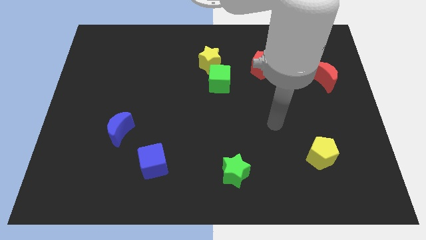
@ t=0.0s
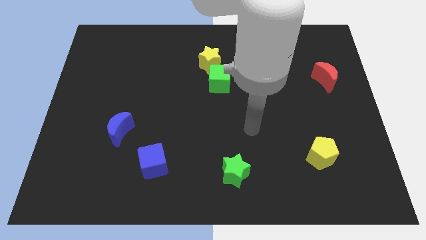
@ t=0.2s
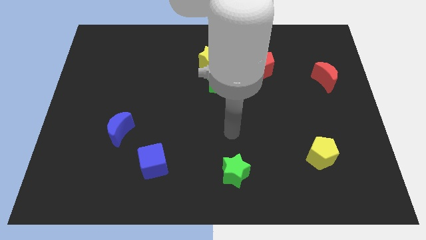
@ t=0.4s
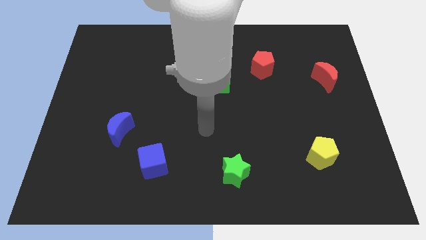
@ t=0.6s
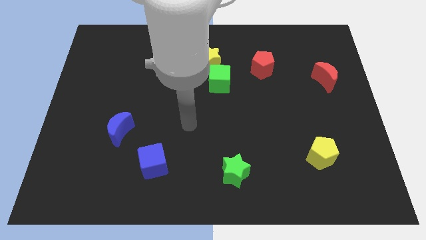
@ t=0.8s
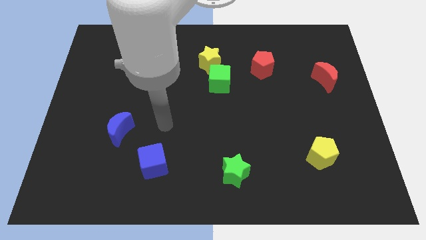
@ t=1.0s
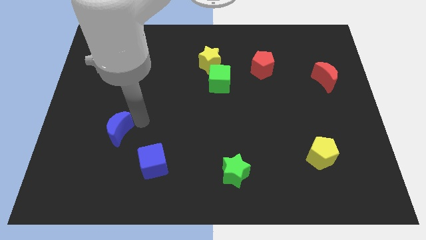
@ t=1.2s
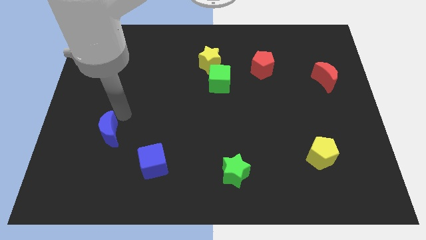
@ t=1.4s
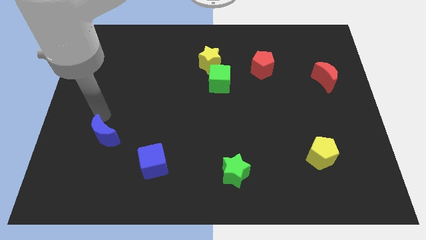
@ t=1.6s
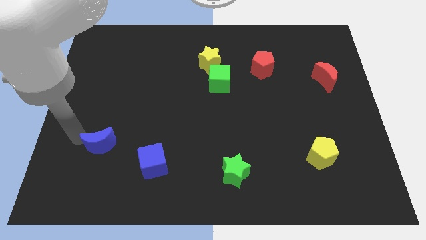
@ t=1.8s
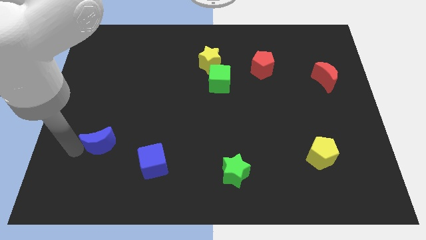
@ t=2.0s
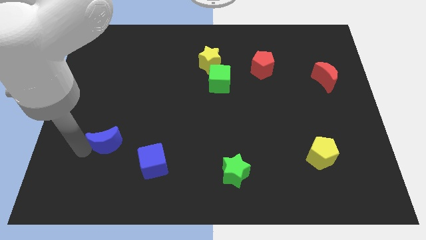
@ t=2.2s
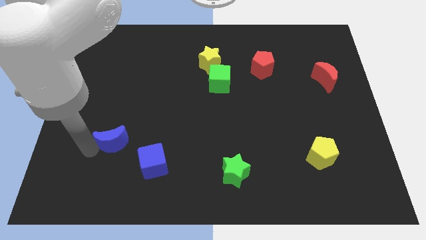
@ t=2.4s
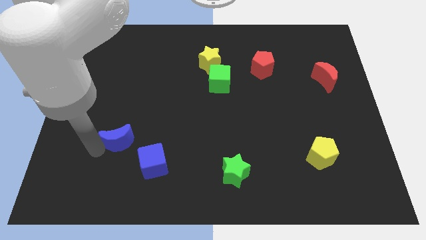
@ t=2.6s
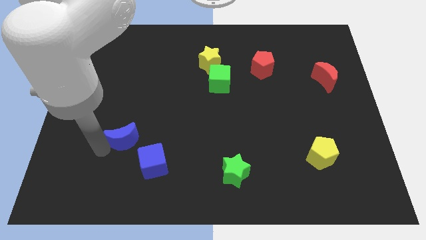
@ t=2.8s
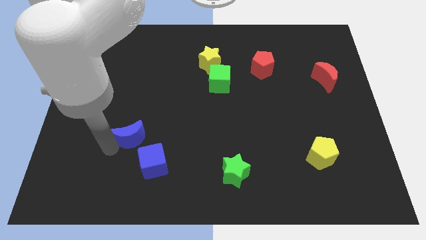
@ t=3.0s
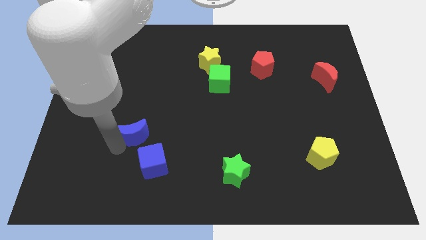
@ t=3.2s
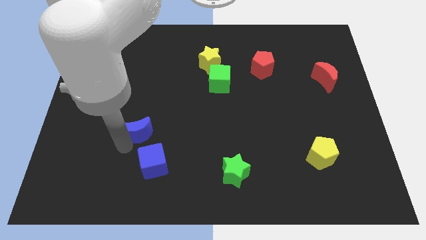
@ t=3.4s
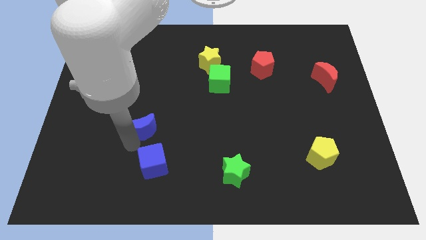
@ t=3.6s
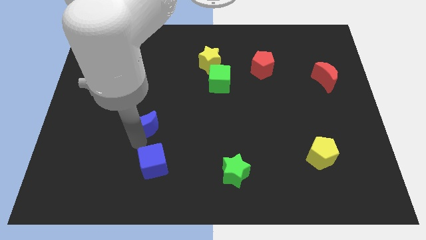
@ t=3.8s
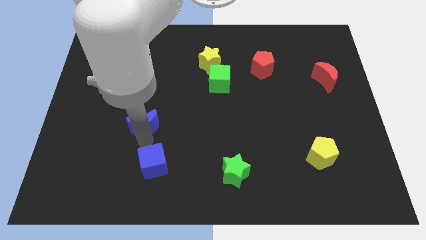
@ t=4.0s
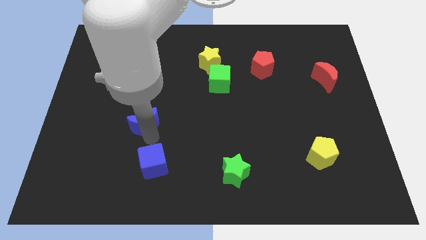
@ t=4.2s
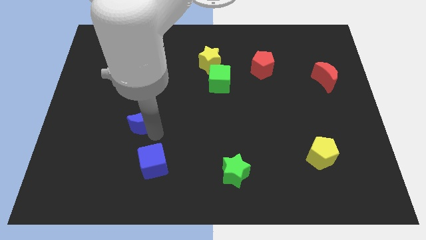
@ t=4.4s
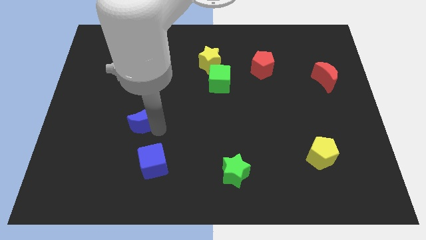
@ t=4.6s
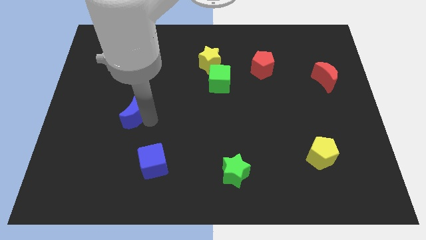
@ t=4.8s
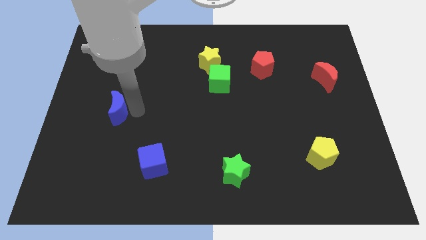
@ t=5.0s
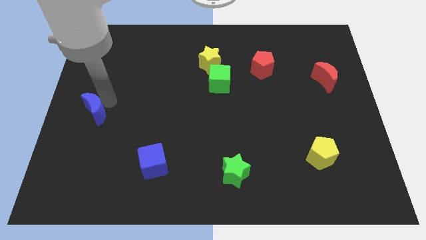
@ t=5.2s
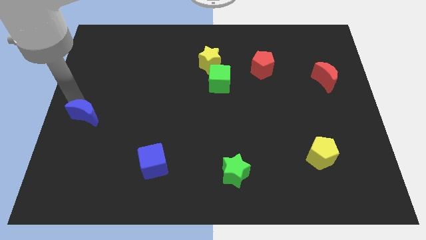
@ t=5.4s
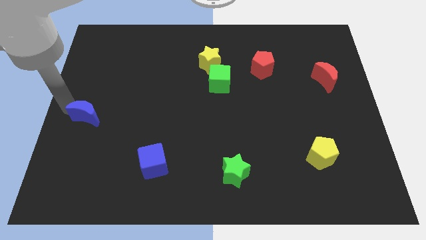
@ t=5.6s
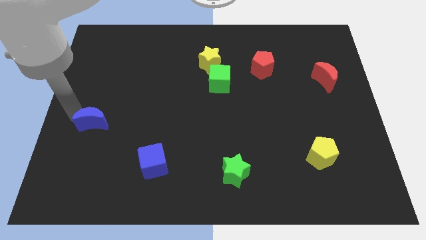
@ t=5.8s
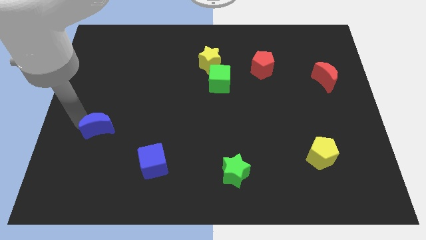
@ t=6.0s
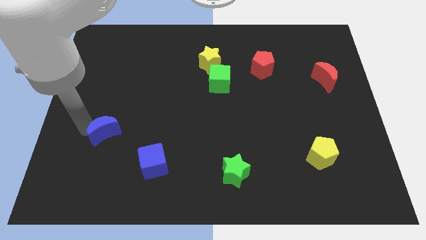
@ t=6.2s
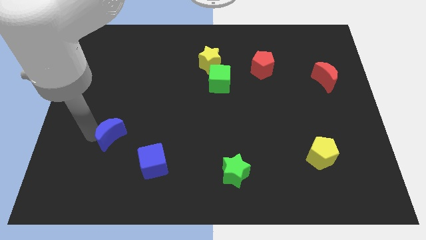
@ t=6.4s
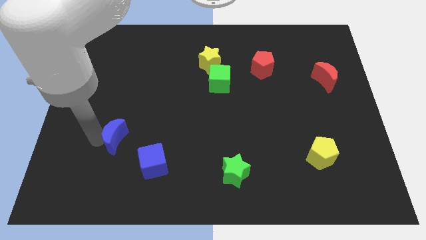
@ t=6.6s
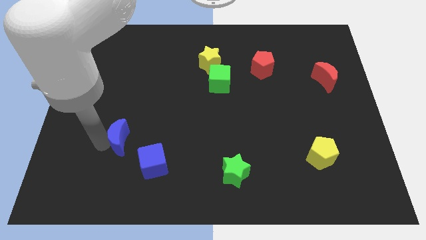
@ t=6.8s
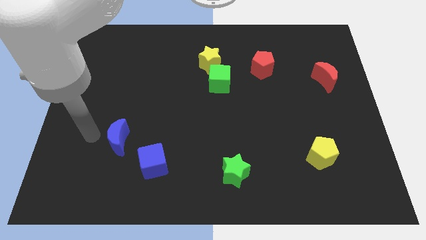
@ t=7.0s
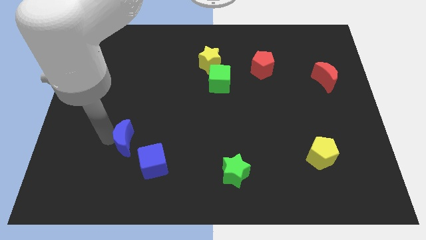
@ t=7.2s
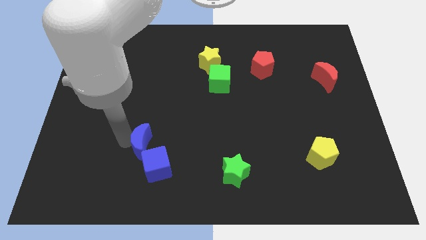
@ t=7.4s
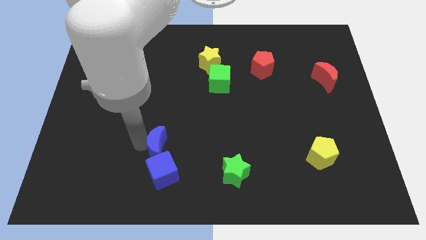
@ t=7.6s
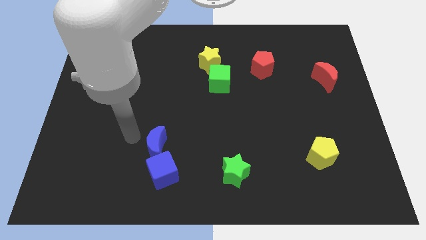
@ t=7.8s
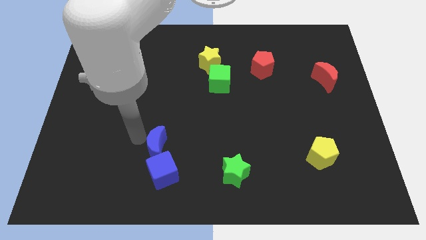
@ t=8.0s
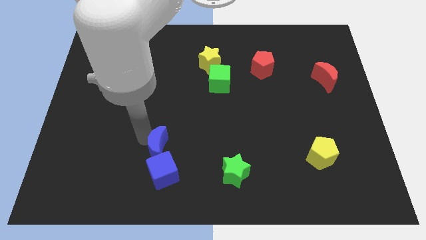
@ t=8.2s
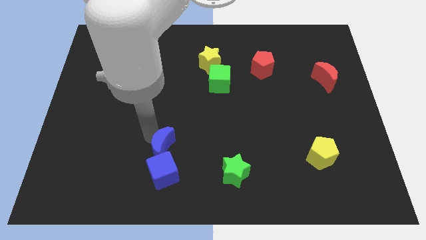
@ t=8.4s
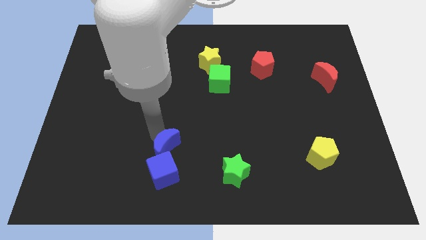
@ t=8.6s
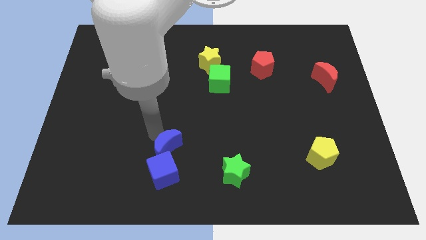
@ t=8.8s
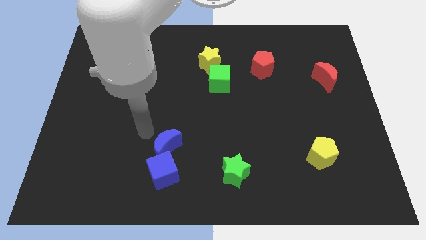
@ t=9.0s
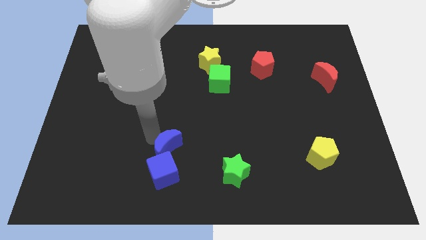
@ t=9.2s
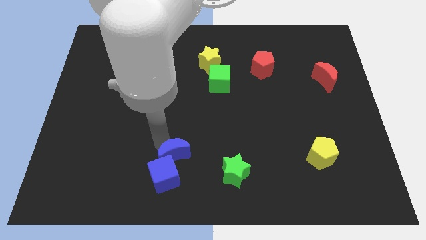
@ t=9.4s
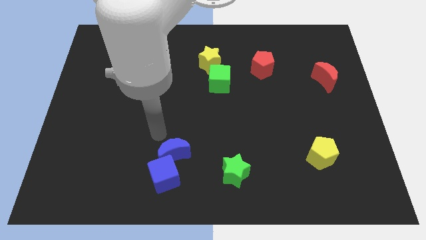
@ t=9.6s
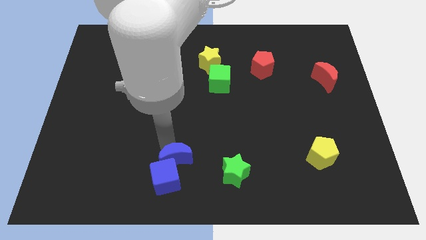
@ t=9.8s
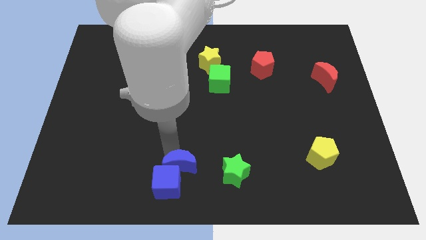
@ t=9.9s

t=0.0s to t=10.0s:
slide the blue moon to the bottom side

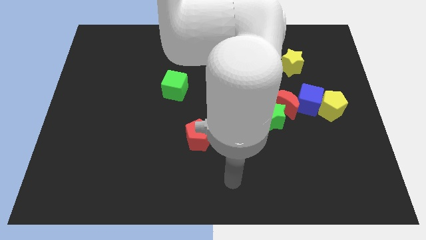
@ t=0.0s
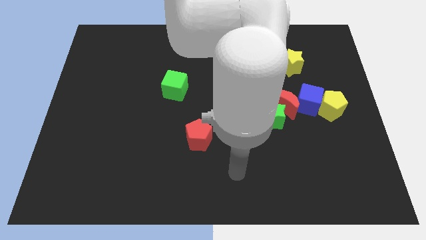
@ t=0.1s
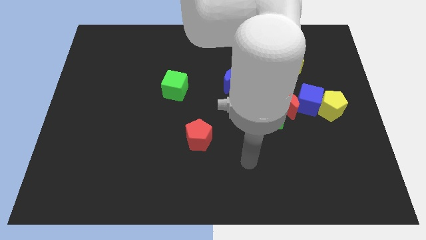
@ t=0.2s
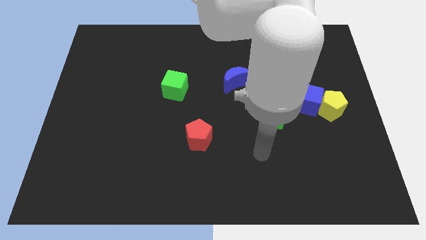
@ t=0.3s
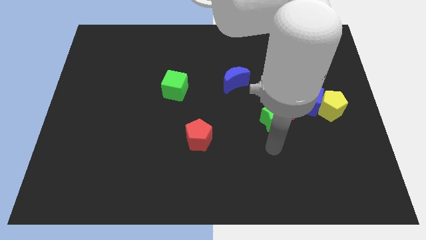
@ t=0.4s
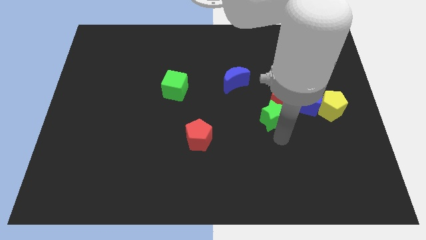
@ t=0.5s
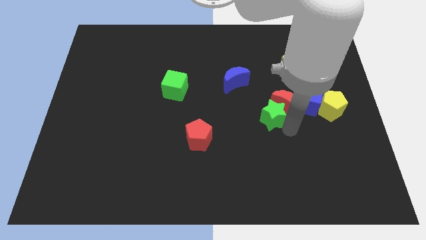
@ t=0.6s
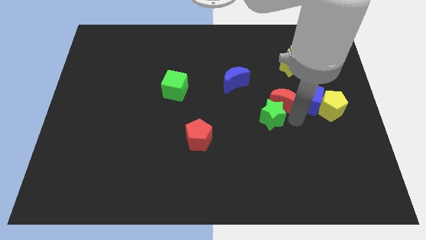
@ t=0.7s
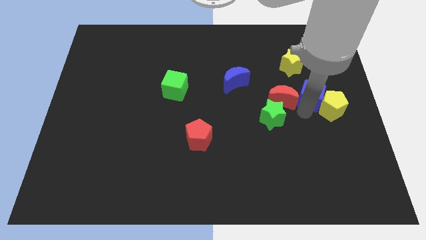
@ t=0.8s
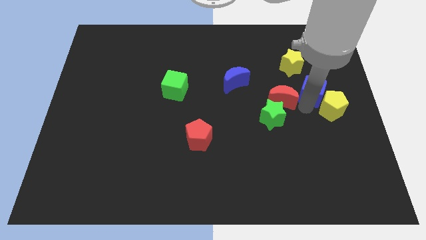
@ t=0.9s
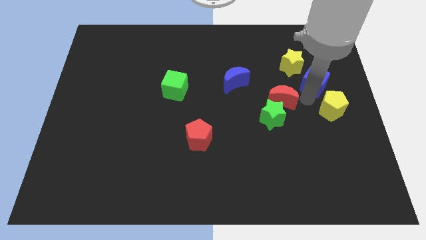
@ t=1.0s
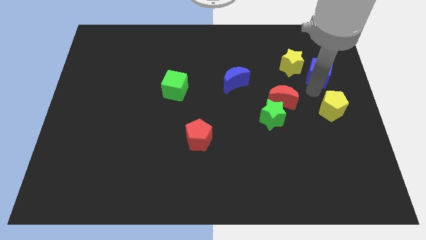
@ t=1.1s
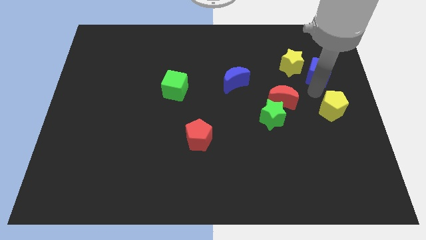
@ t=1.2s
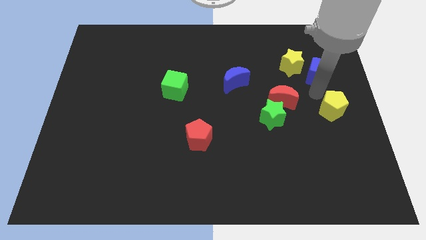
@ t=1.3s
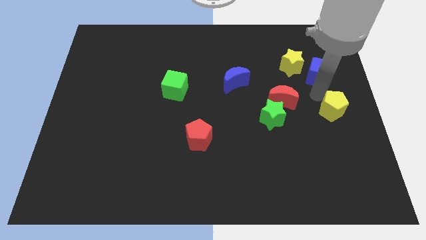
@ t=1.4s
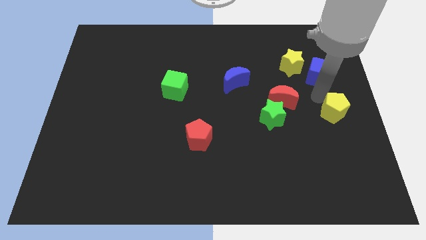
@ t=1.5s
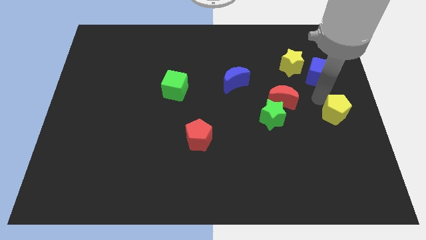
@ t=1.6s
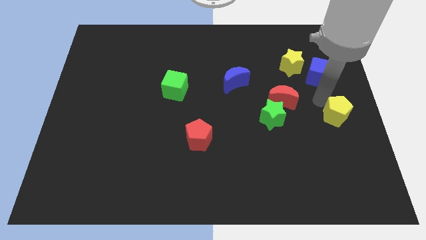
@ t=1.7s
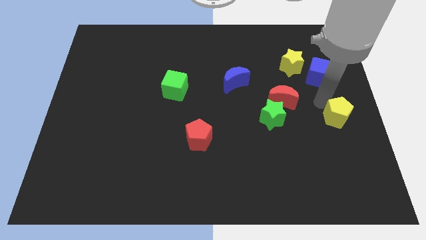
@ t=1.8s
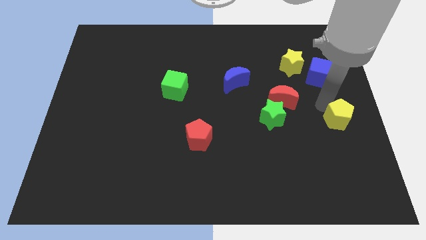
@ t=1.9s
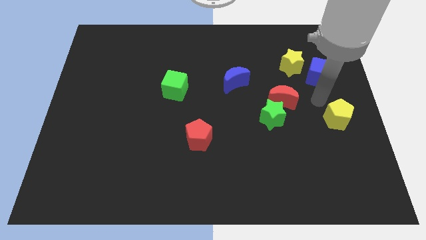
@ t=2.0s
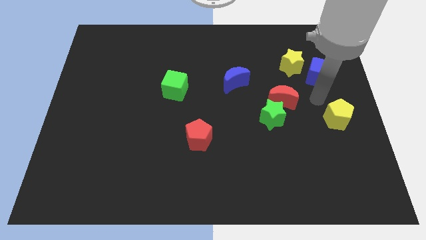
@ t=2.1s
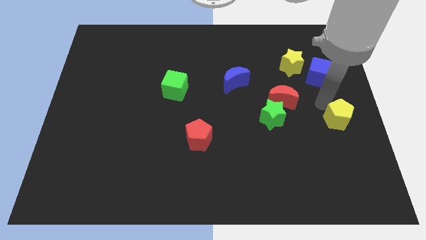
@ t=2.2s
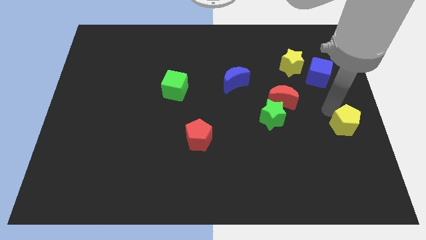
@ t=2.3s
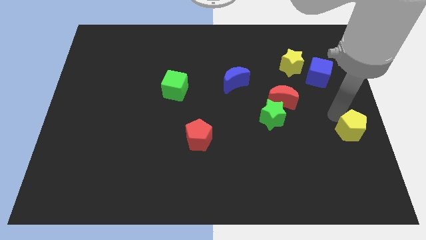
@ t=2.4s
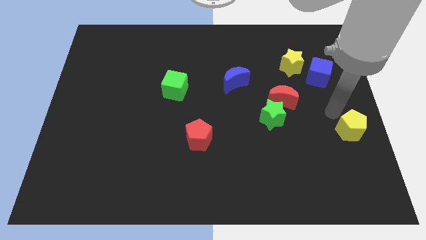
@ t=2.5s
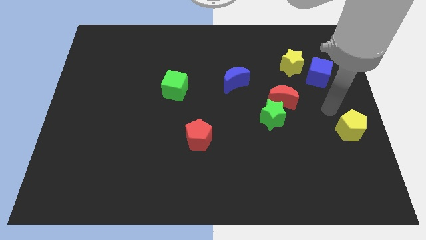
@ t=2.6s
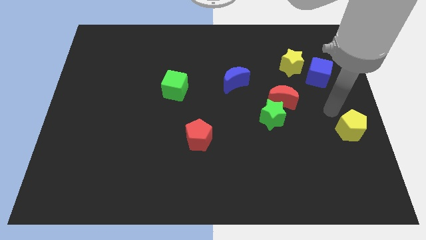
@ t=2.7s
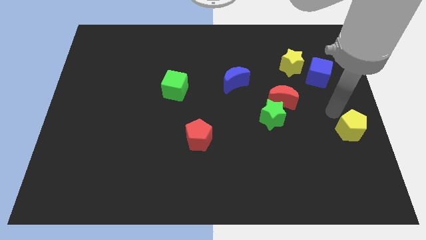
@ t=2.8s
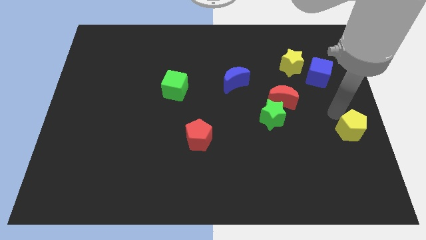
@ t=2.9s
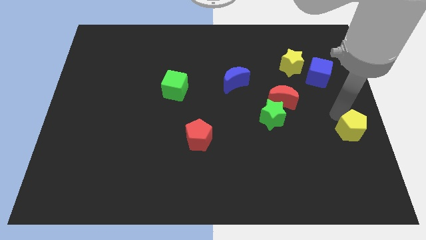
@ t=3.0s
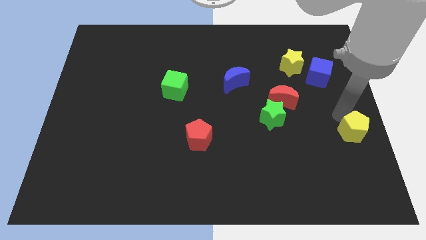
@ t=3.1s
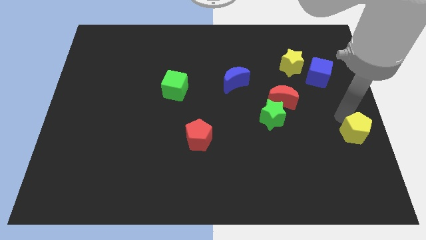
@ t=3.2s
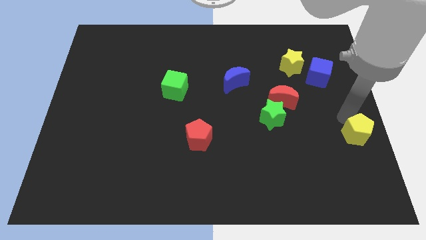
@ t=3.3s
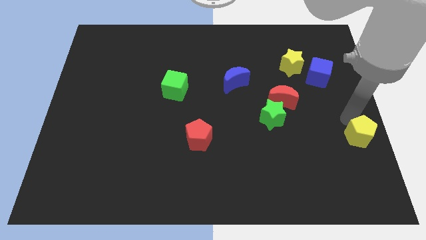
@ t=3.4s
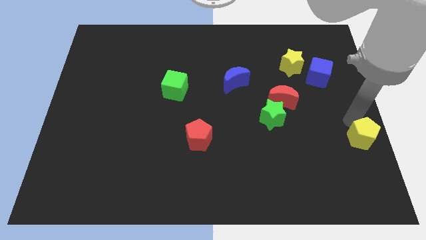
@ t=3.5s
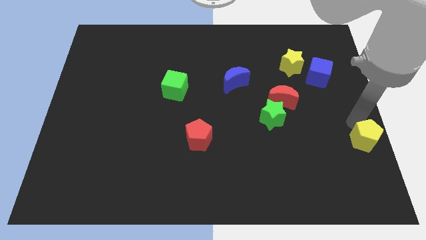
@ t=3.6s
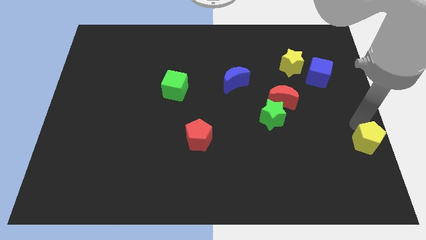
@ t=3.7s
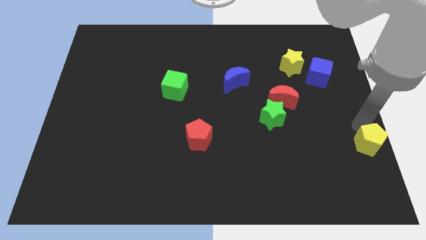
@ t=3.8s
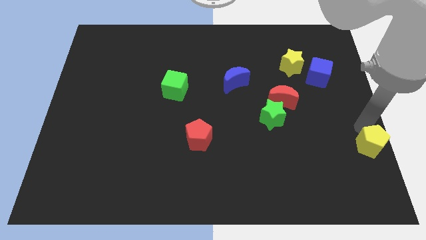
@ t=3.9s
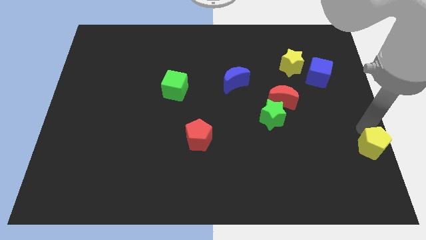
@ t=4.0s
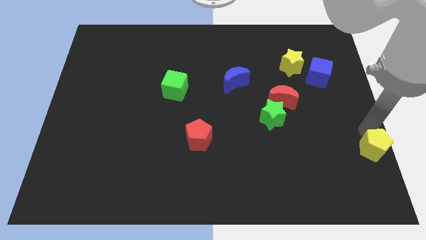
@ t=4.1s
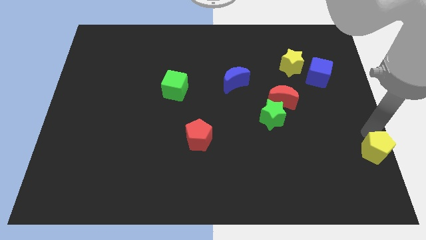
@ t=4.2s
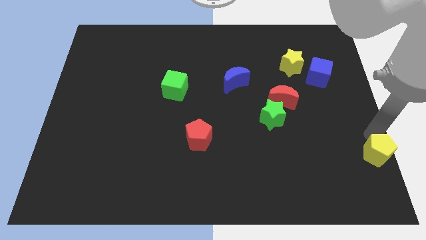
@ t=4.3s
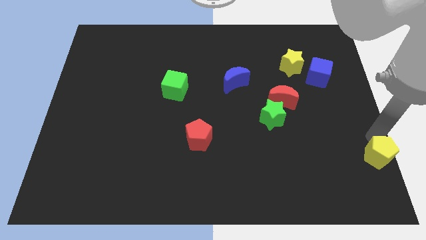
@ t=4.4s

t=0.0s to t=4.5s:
move the yellow pentagon to the bottom right of the board
